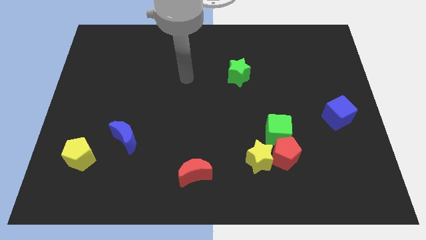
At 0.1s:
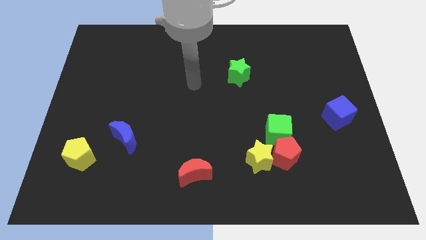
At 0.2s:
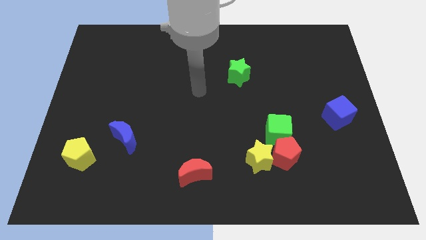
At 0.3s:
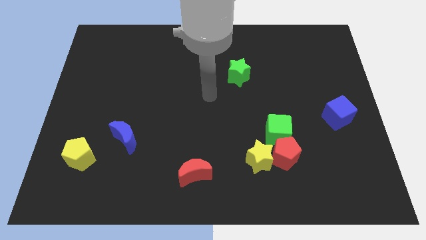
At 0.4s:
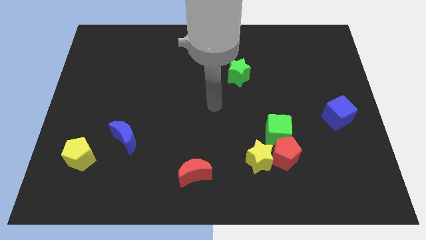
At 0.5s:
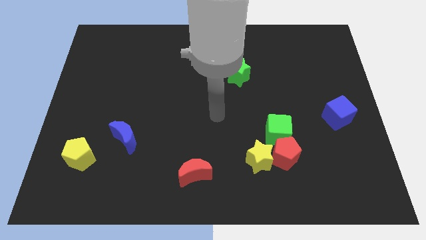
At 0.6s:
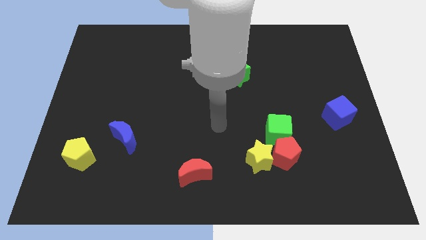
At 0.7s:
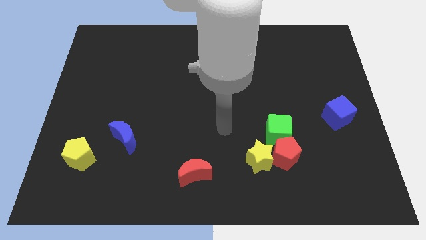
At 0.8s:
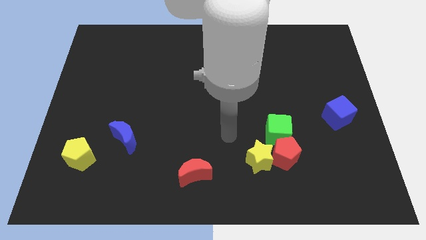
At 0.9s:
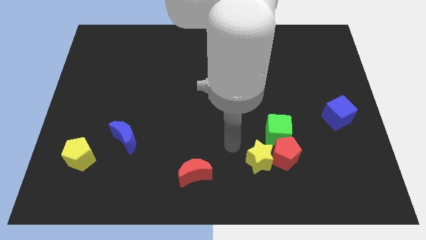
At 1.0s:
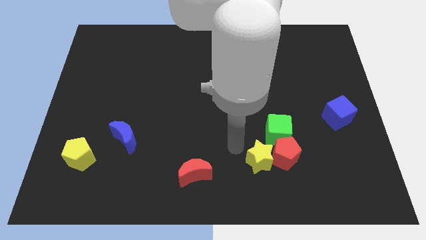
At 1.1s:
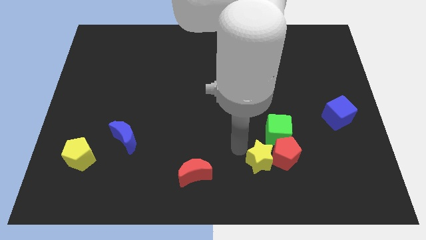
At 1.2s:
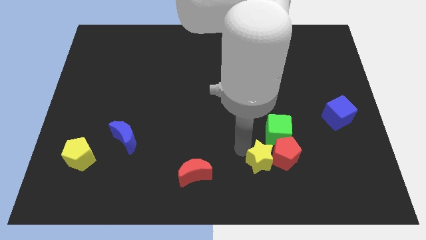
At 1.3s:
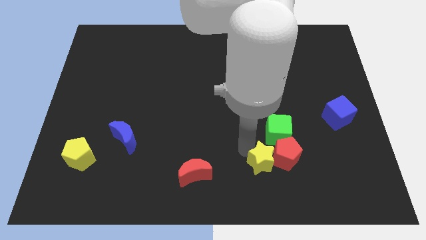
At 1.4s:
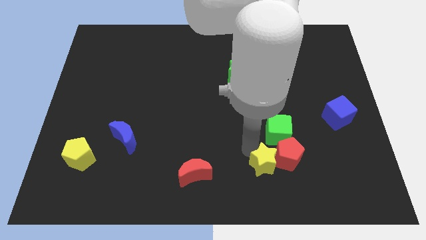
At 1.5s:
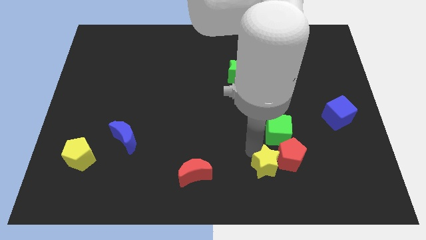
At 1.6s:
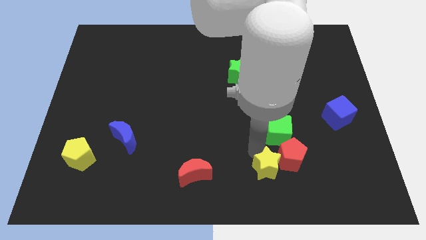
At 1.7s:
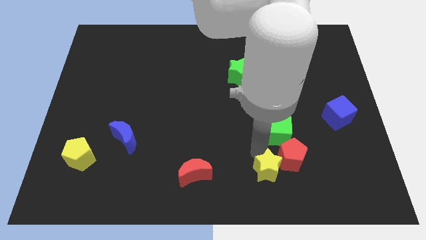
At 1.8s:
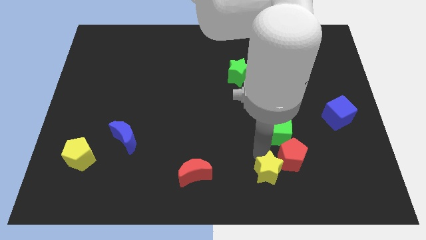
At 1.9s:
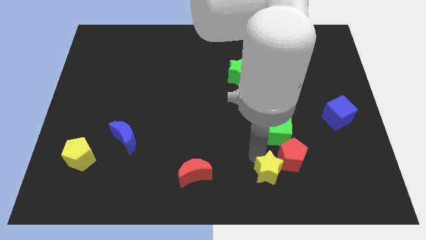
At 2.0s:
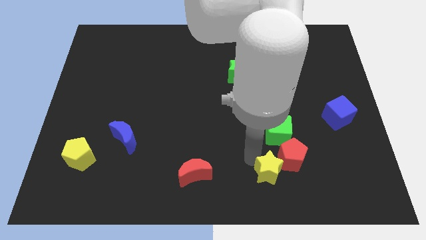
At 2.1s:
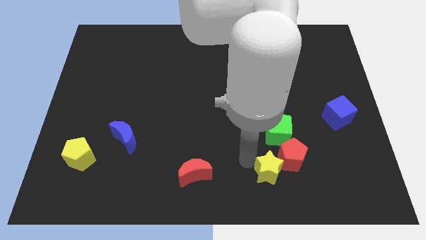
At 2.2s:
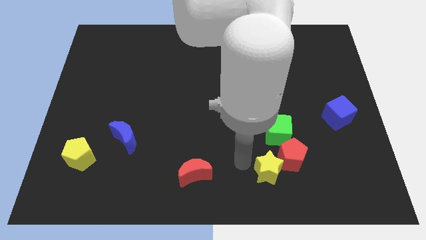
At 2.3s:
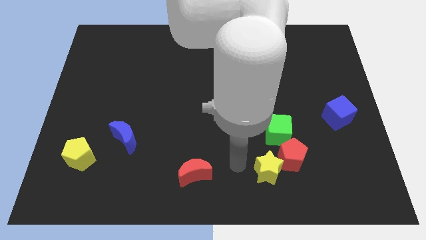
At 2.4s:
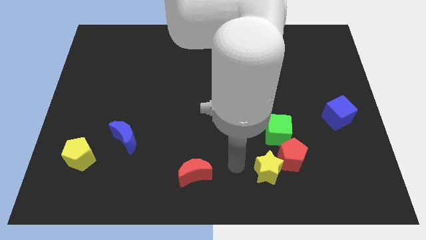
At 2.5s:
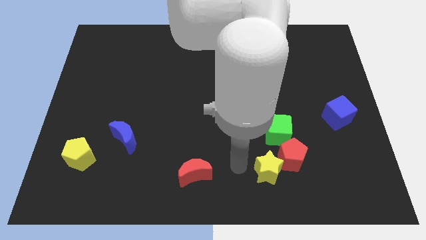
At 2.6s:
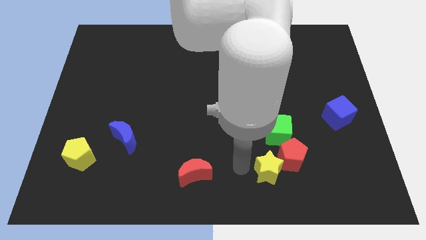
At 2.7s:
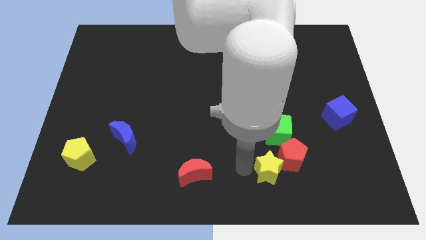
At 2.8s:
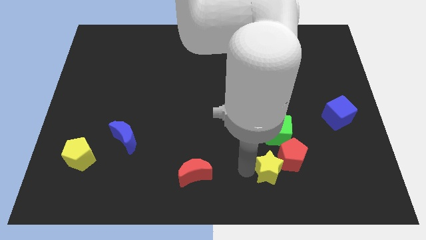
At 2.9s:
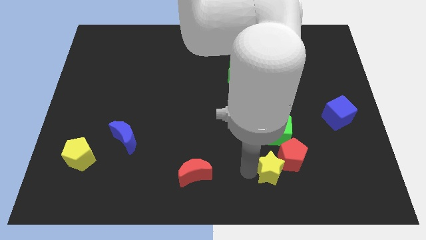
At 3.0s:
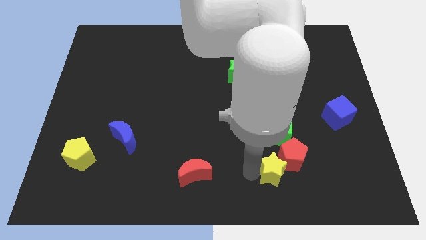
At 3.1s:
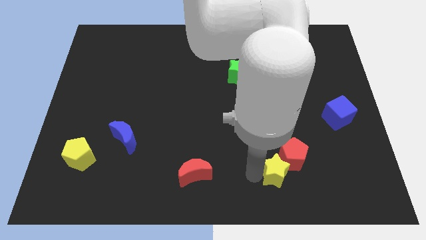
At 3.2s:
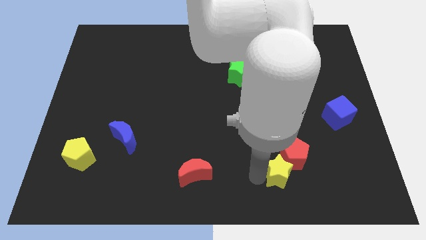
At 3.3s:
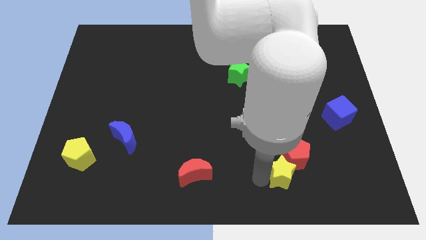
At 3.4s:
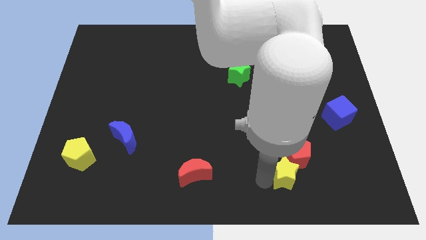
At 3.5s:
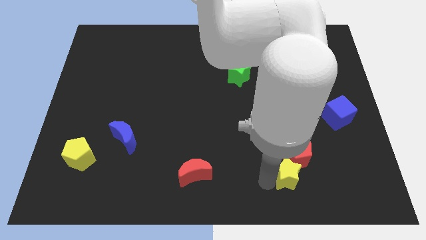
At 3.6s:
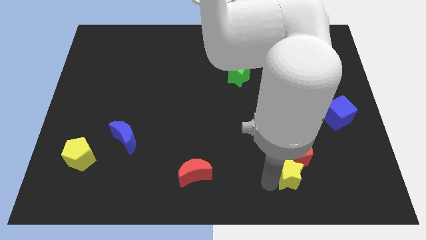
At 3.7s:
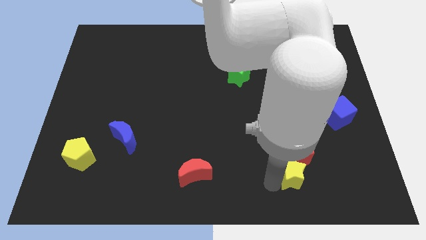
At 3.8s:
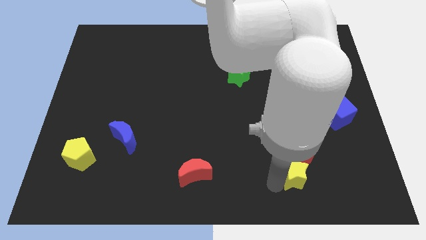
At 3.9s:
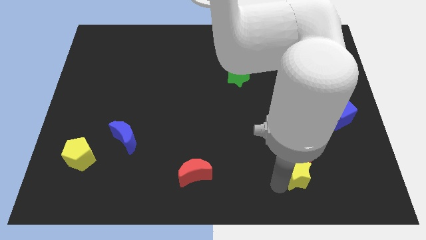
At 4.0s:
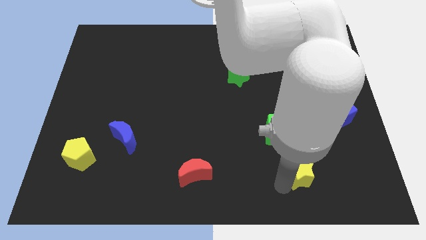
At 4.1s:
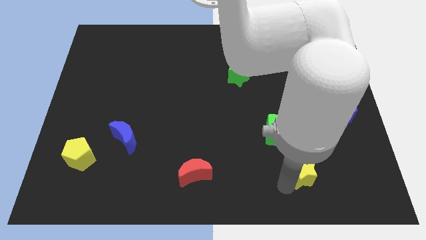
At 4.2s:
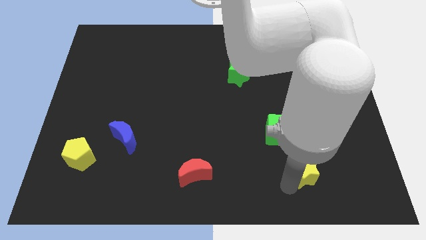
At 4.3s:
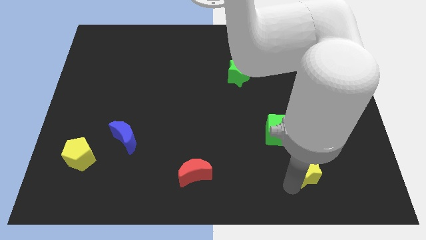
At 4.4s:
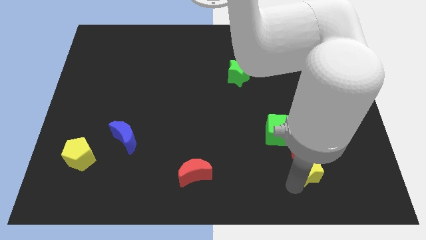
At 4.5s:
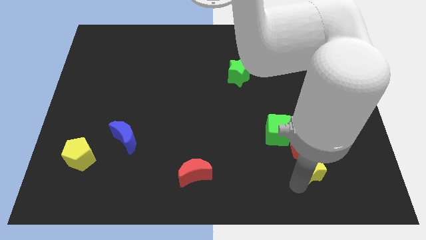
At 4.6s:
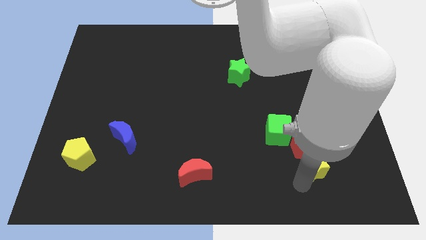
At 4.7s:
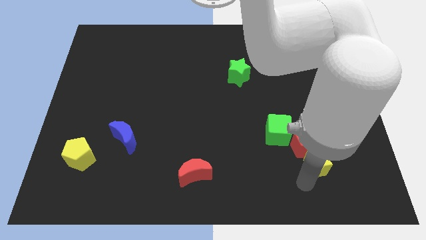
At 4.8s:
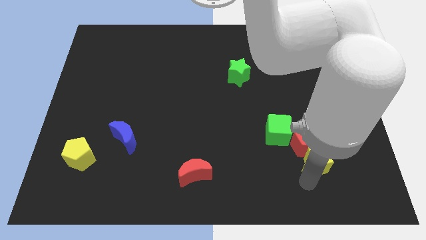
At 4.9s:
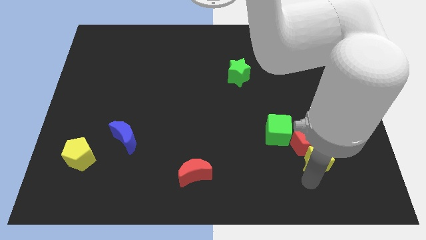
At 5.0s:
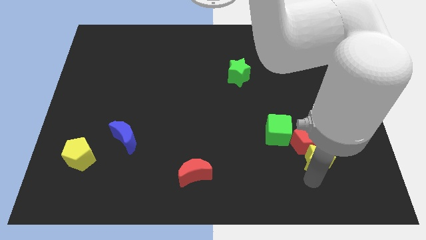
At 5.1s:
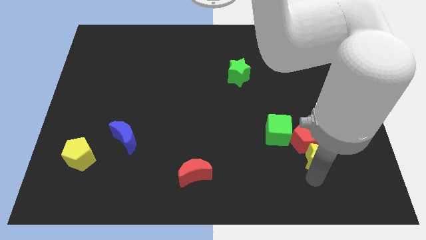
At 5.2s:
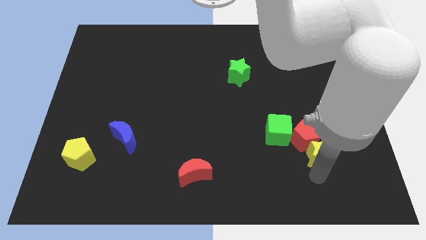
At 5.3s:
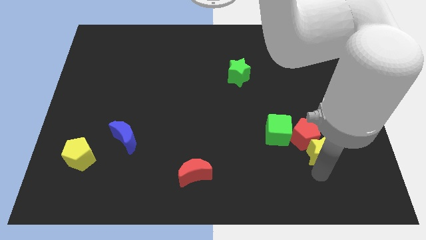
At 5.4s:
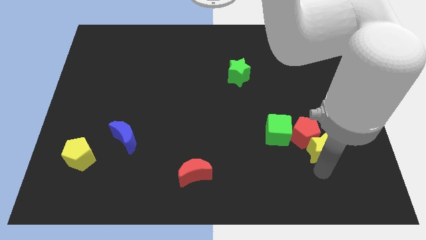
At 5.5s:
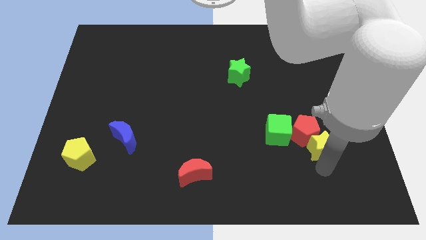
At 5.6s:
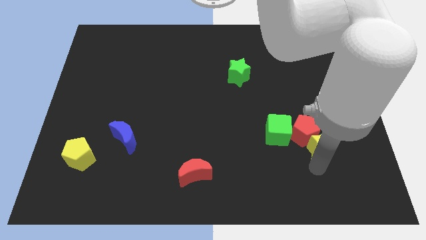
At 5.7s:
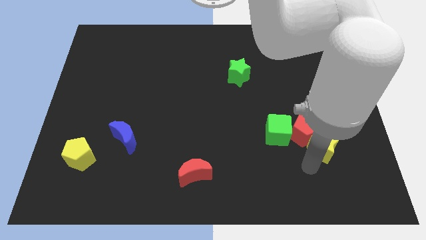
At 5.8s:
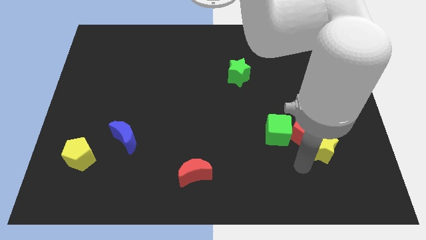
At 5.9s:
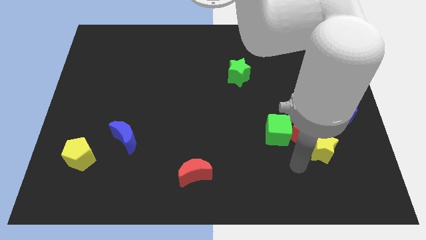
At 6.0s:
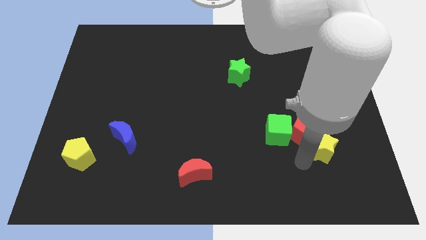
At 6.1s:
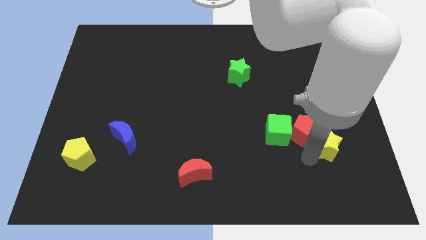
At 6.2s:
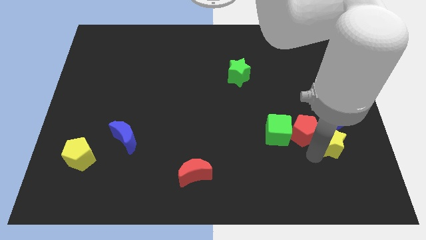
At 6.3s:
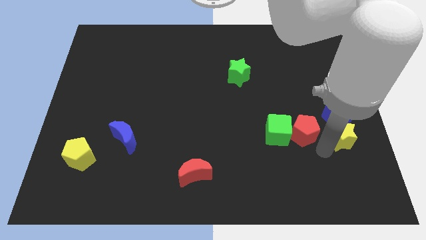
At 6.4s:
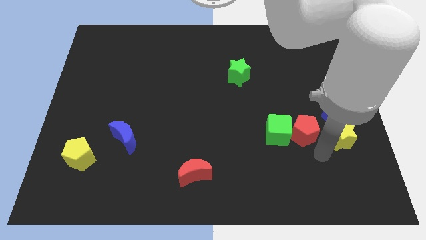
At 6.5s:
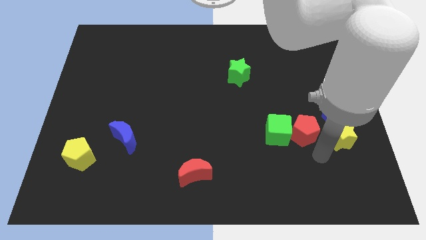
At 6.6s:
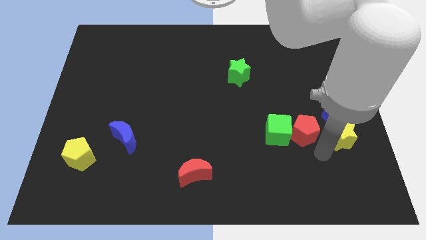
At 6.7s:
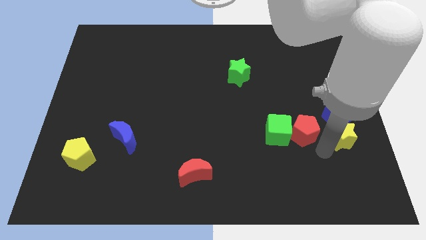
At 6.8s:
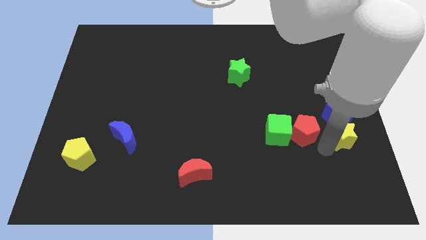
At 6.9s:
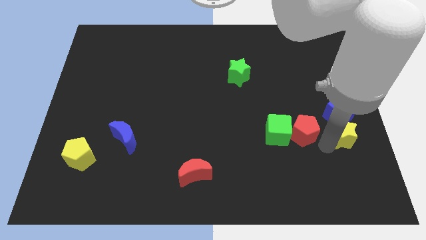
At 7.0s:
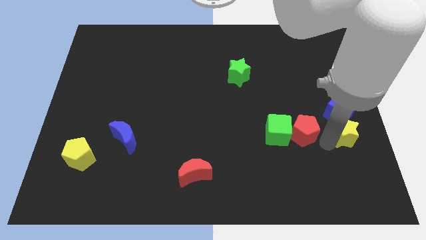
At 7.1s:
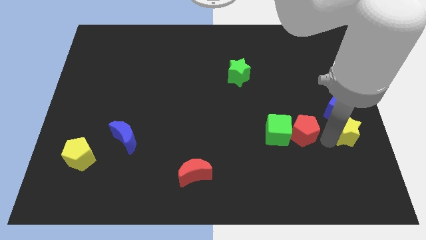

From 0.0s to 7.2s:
put the yellow star to the right side
